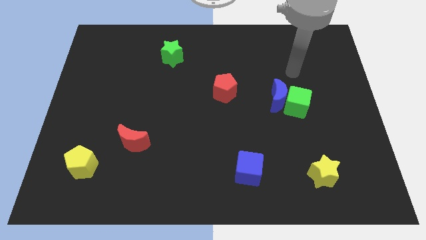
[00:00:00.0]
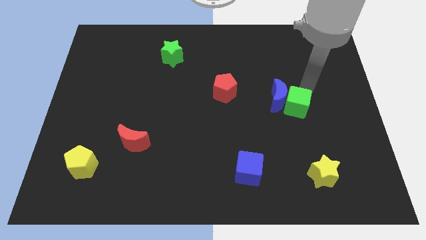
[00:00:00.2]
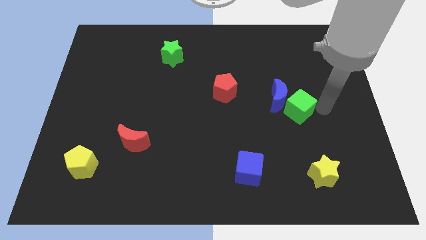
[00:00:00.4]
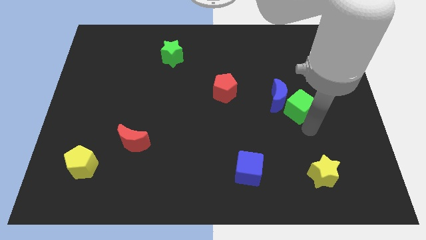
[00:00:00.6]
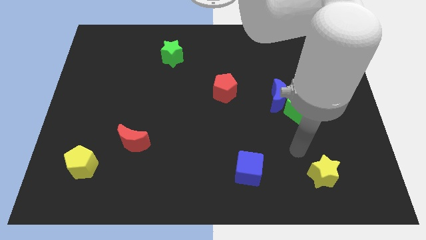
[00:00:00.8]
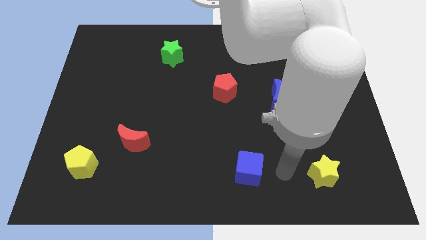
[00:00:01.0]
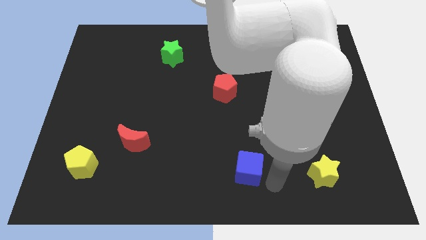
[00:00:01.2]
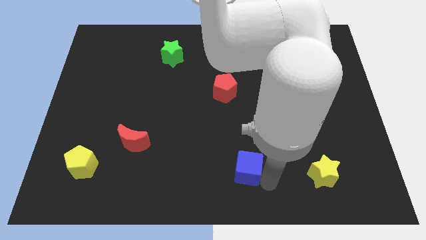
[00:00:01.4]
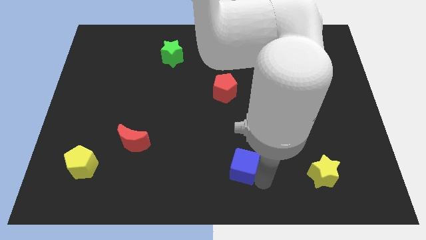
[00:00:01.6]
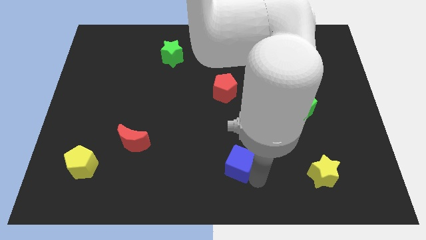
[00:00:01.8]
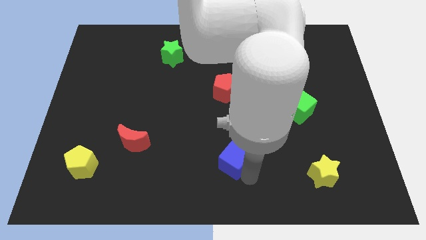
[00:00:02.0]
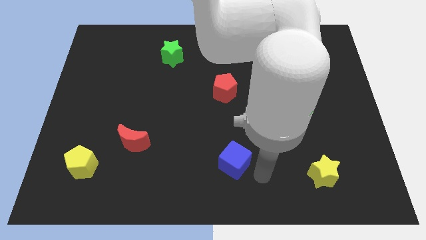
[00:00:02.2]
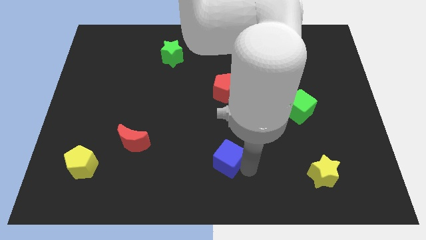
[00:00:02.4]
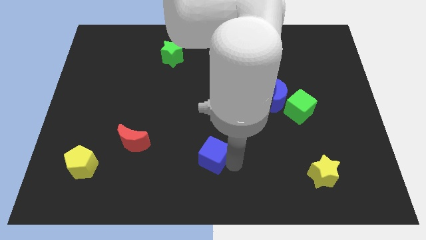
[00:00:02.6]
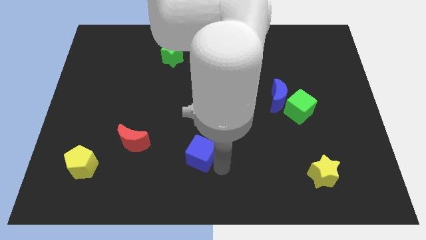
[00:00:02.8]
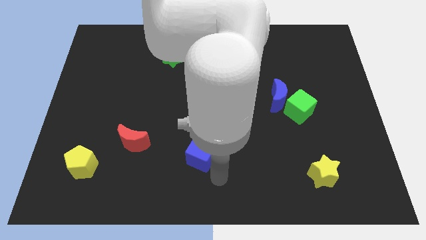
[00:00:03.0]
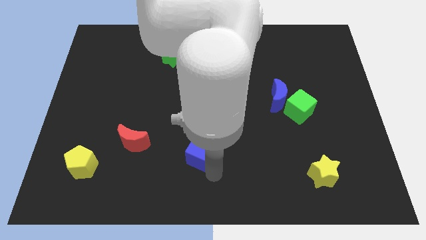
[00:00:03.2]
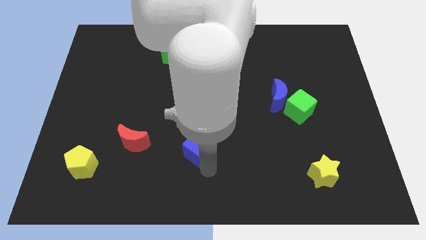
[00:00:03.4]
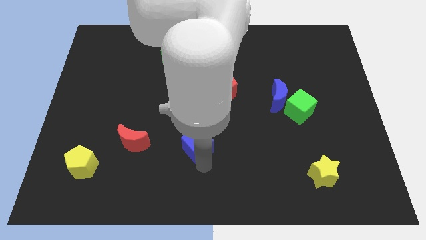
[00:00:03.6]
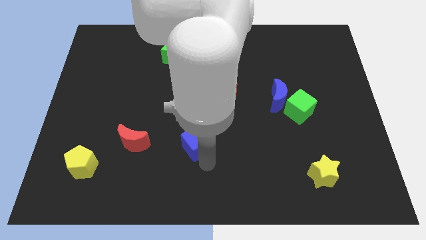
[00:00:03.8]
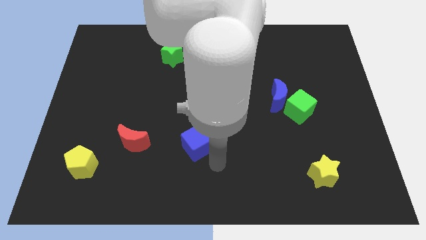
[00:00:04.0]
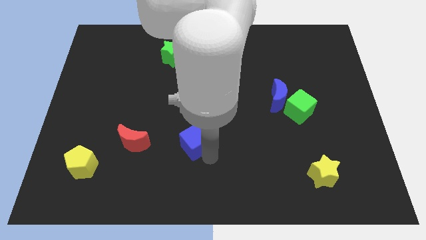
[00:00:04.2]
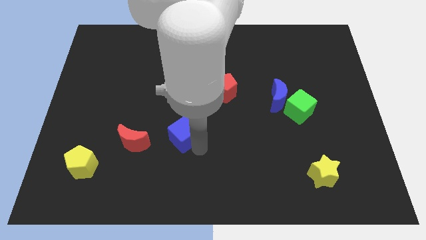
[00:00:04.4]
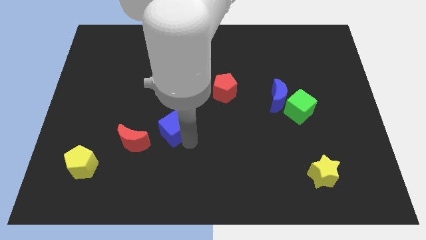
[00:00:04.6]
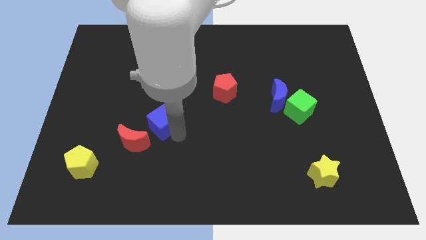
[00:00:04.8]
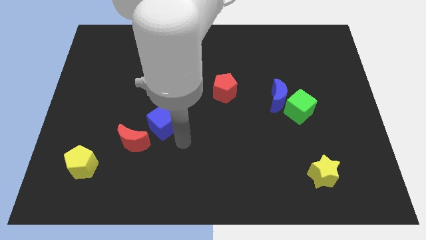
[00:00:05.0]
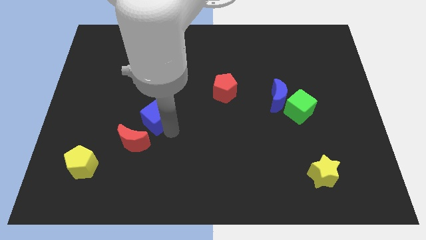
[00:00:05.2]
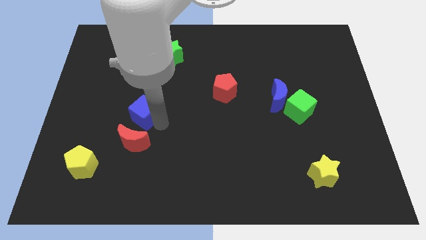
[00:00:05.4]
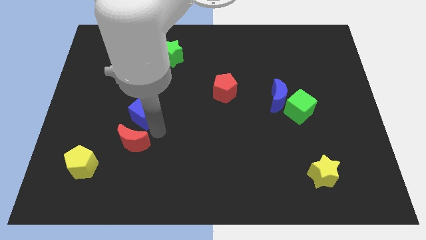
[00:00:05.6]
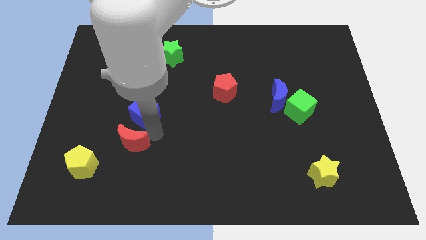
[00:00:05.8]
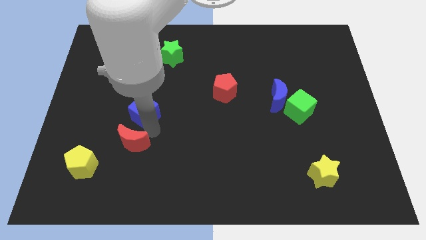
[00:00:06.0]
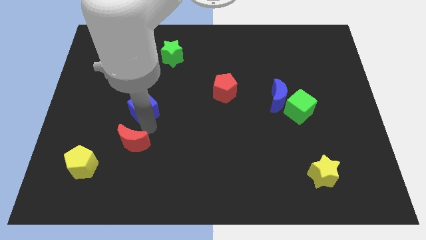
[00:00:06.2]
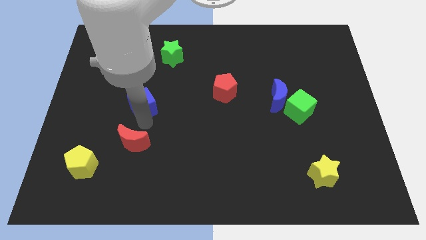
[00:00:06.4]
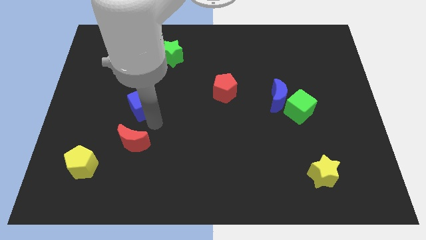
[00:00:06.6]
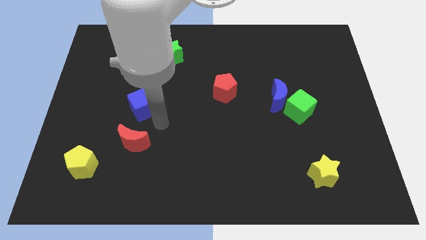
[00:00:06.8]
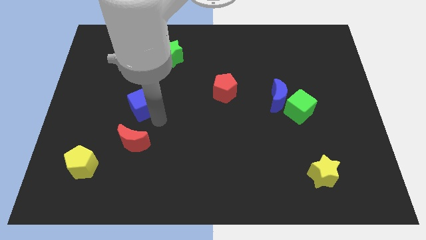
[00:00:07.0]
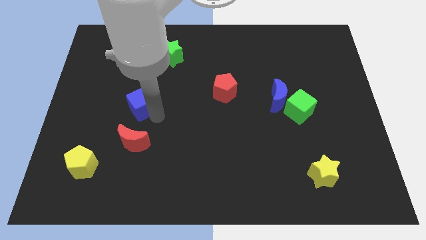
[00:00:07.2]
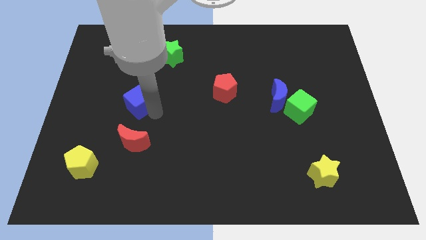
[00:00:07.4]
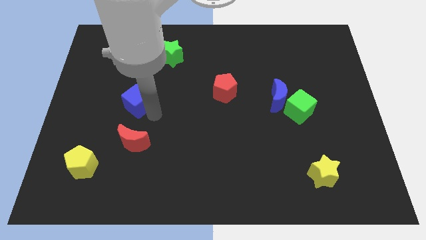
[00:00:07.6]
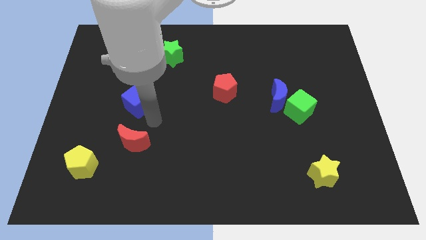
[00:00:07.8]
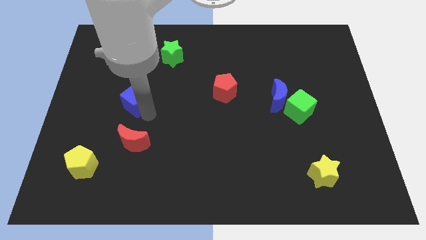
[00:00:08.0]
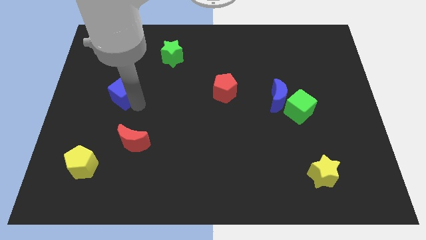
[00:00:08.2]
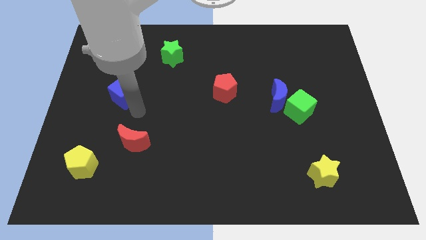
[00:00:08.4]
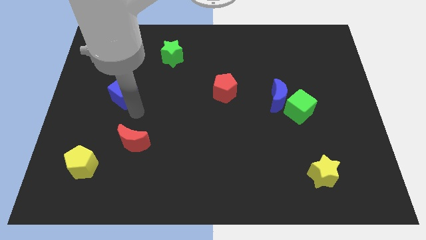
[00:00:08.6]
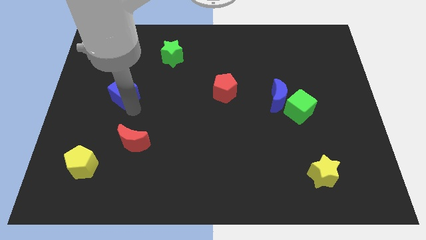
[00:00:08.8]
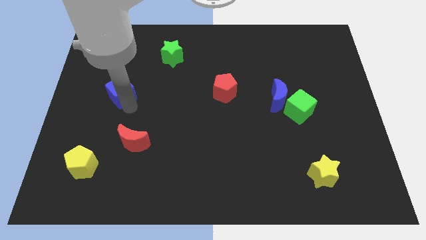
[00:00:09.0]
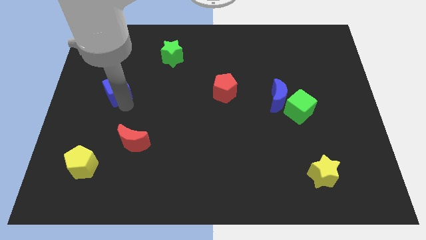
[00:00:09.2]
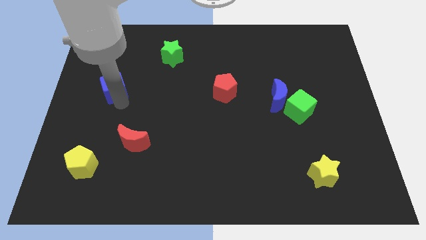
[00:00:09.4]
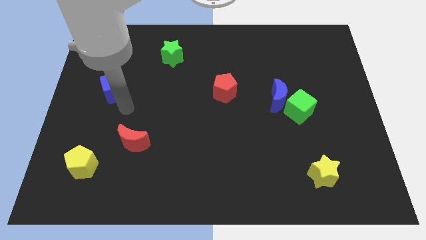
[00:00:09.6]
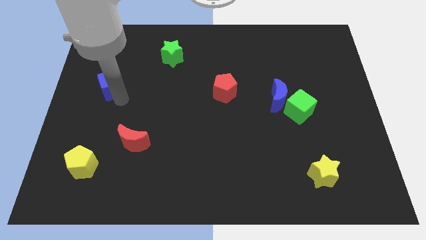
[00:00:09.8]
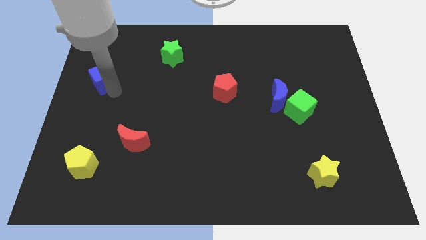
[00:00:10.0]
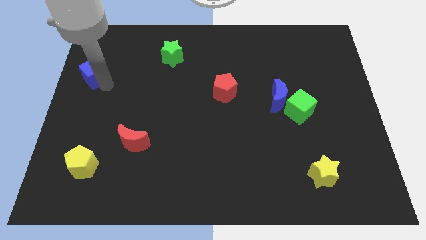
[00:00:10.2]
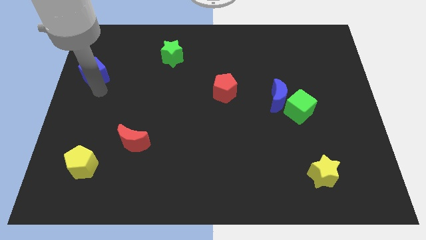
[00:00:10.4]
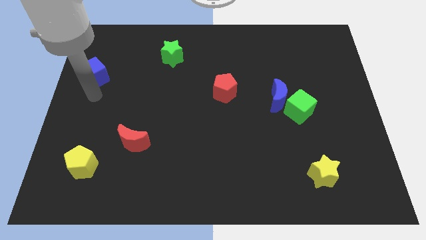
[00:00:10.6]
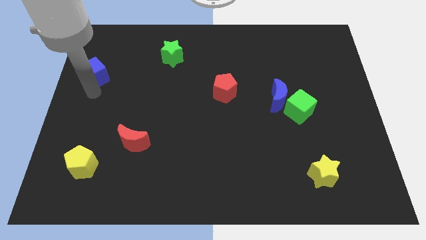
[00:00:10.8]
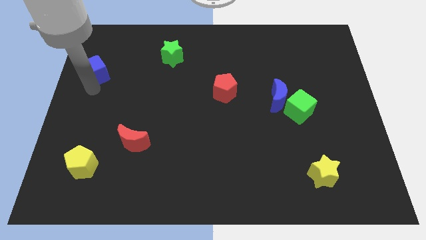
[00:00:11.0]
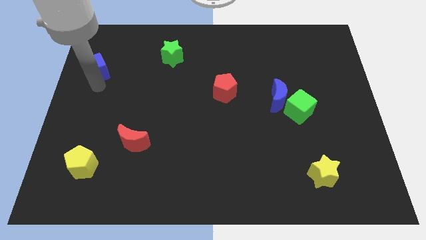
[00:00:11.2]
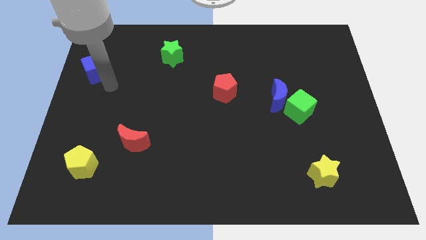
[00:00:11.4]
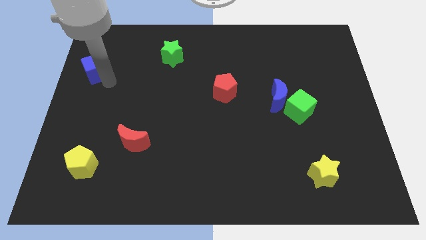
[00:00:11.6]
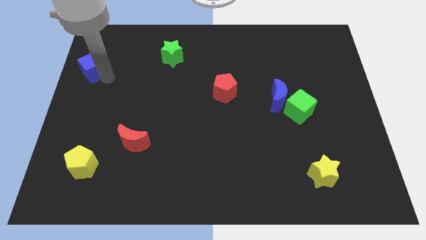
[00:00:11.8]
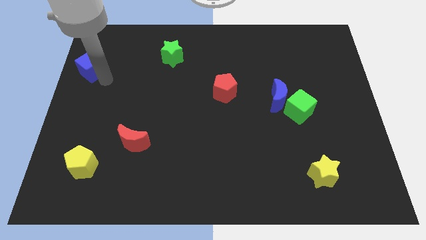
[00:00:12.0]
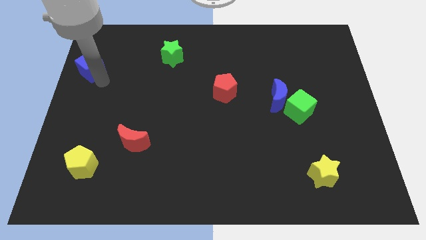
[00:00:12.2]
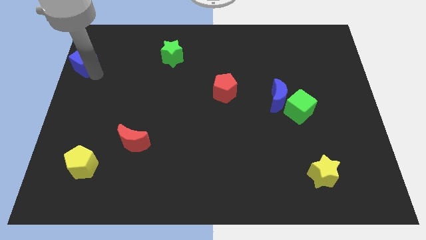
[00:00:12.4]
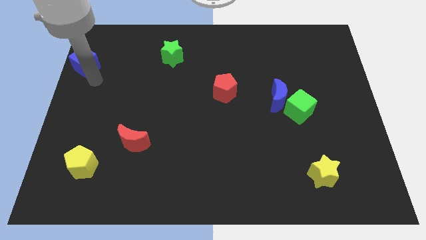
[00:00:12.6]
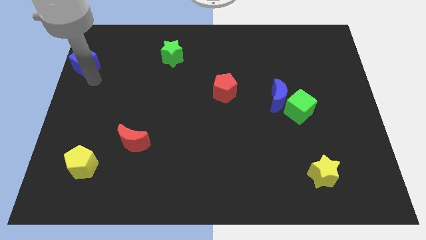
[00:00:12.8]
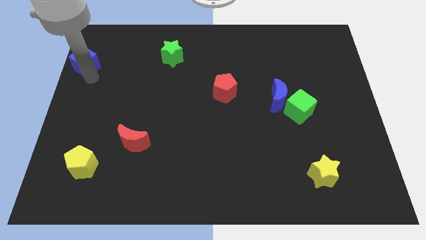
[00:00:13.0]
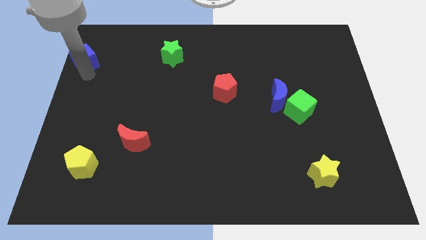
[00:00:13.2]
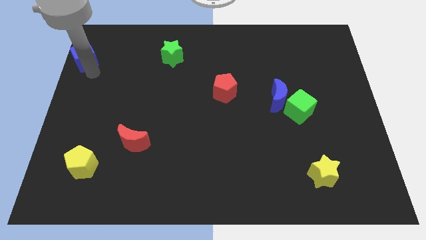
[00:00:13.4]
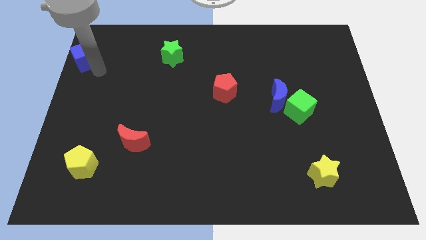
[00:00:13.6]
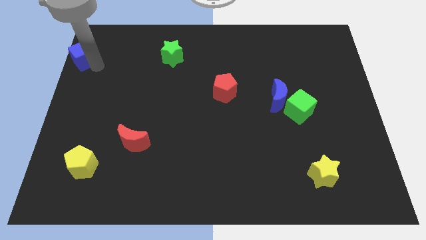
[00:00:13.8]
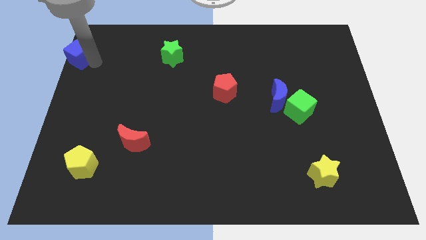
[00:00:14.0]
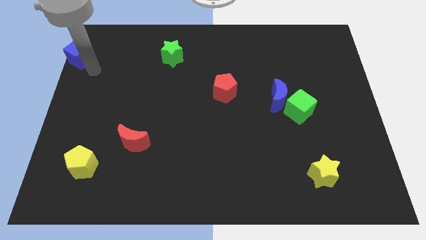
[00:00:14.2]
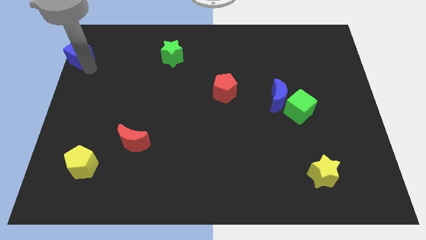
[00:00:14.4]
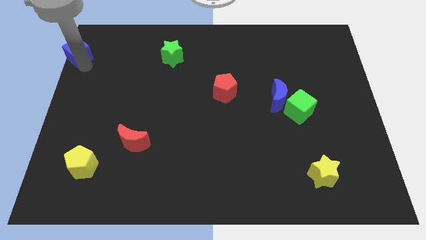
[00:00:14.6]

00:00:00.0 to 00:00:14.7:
push the blue cube to the top left of the board
